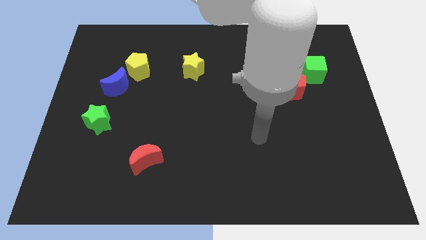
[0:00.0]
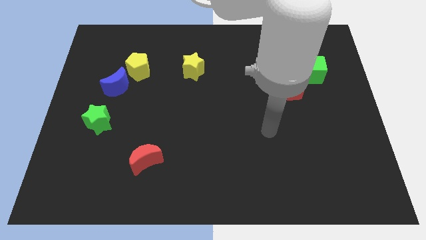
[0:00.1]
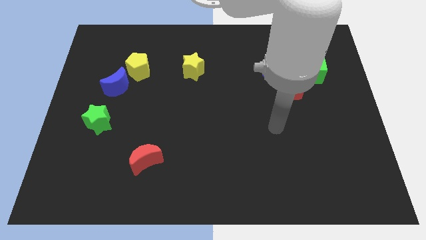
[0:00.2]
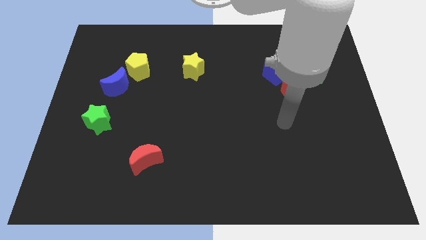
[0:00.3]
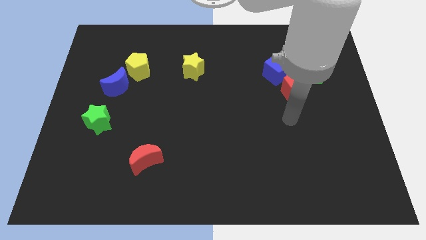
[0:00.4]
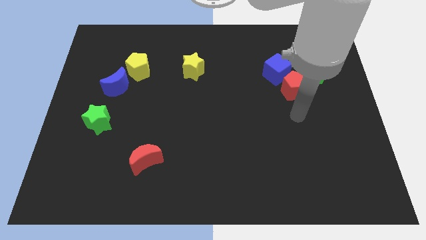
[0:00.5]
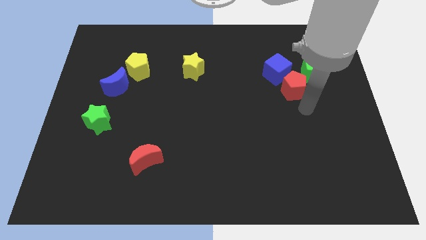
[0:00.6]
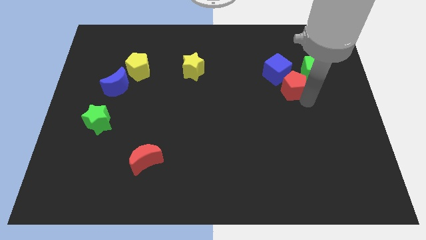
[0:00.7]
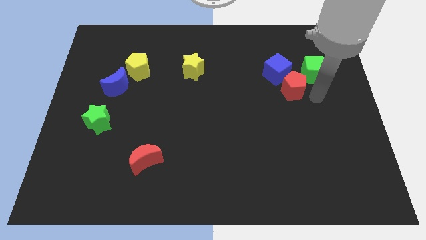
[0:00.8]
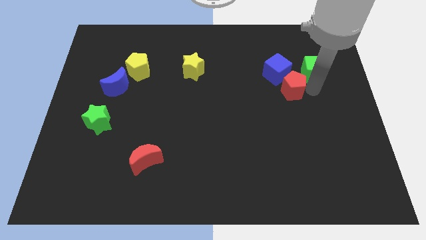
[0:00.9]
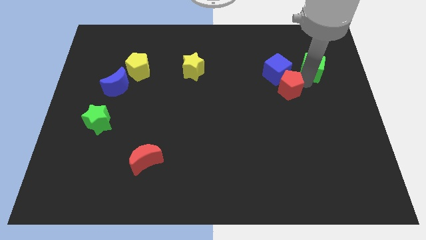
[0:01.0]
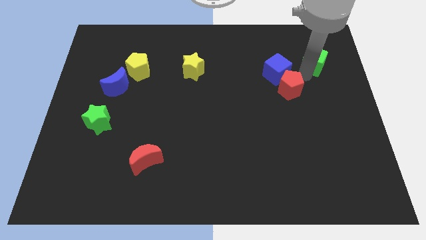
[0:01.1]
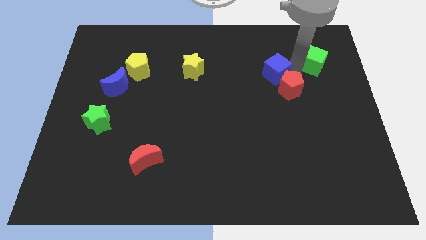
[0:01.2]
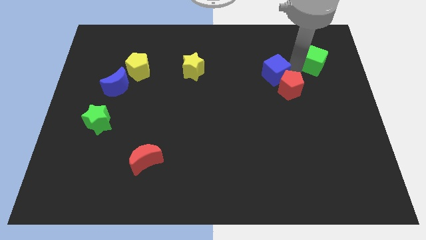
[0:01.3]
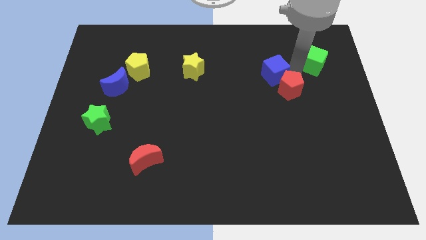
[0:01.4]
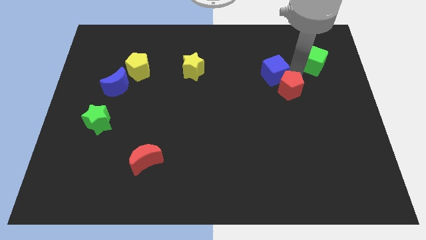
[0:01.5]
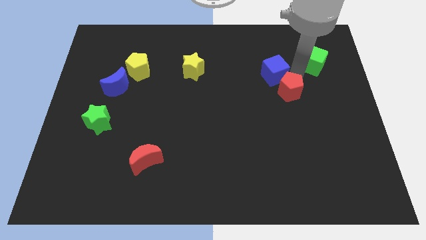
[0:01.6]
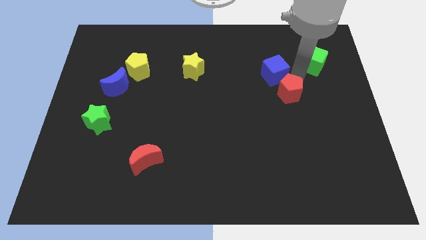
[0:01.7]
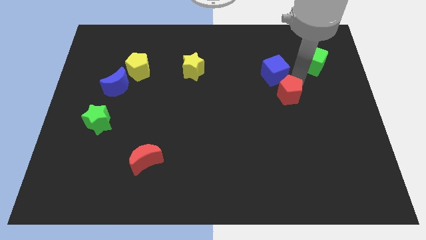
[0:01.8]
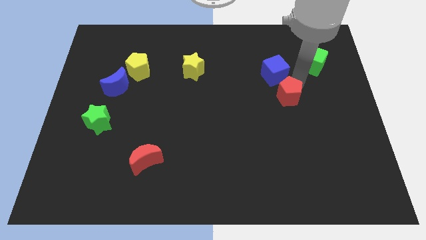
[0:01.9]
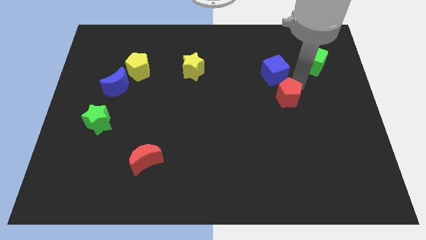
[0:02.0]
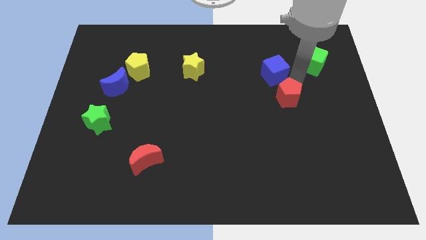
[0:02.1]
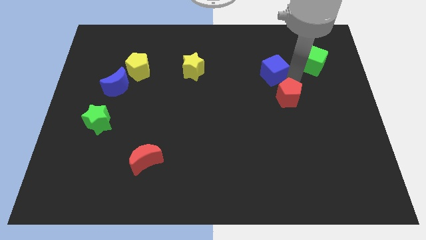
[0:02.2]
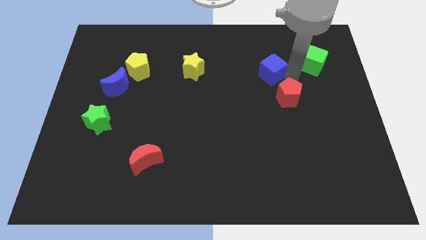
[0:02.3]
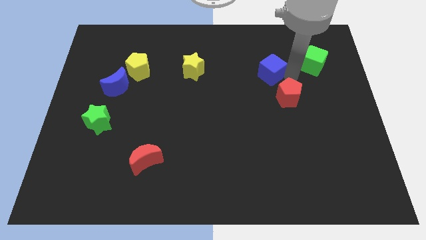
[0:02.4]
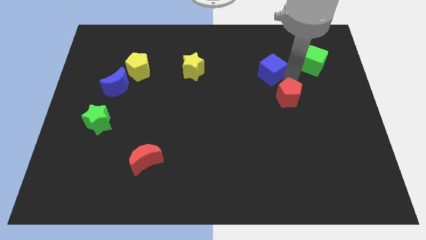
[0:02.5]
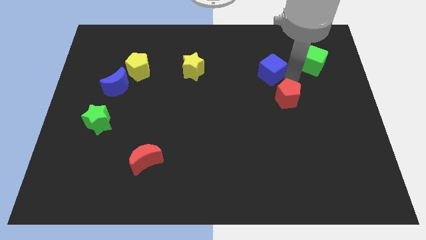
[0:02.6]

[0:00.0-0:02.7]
pull the red pentagon apart from the blue cube and green cube

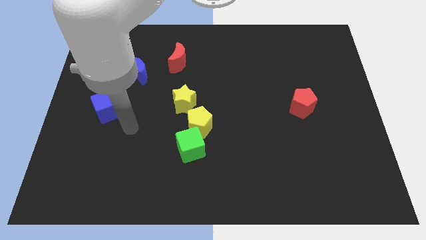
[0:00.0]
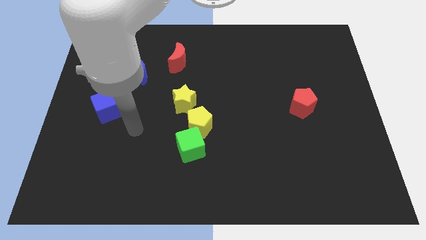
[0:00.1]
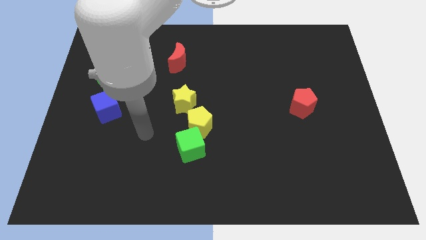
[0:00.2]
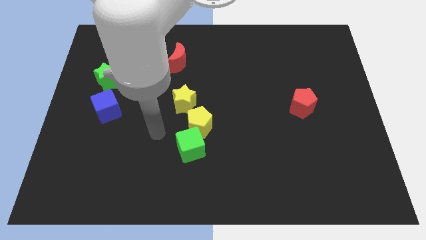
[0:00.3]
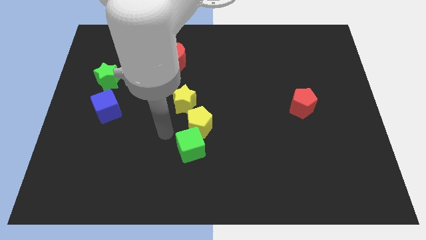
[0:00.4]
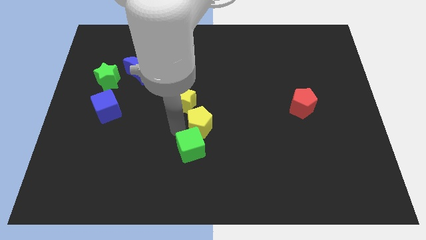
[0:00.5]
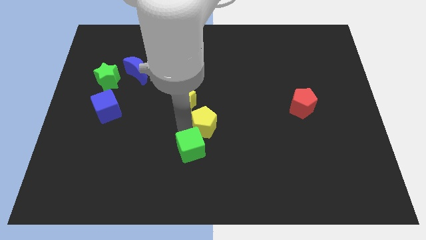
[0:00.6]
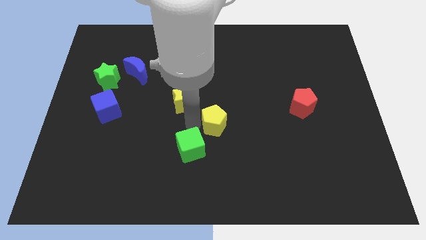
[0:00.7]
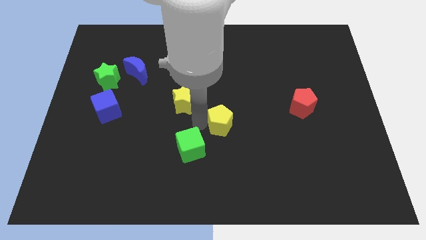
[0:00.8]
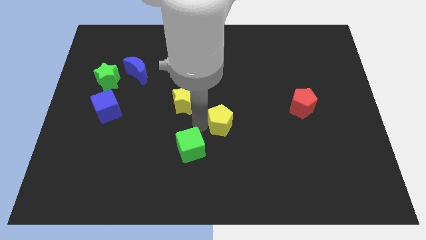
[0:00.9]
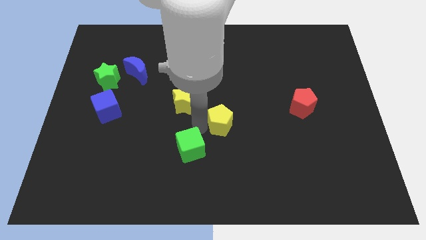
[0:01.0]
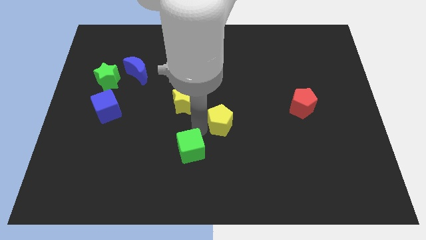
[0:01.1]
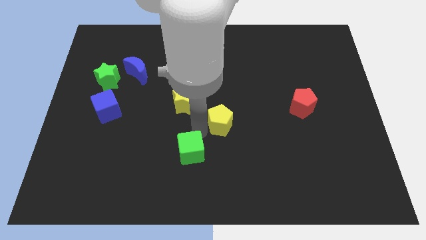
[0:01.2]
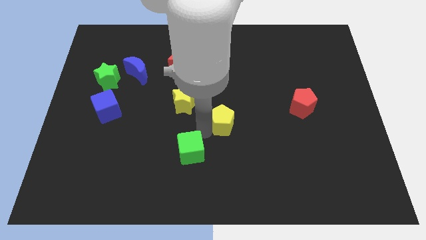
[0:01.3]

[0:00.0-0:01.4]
move the green cube away from the yellow pentagon

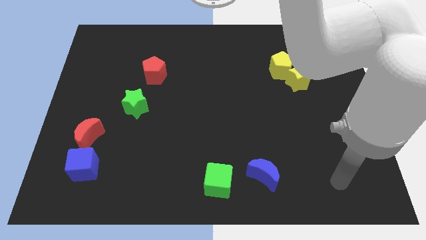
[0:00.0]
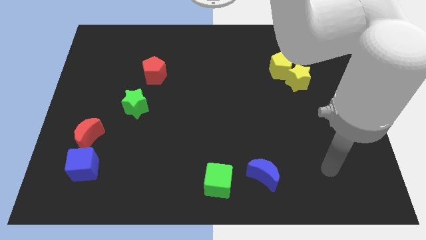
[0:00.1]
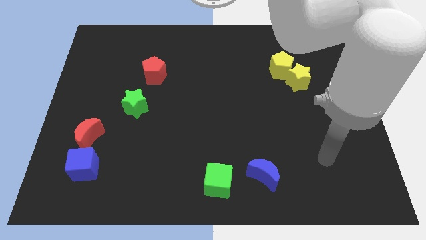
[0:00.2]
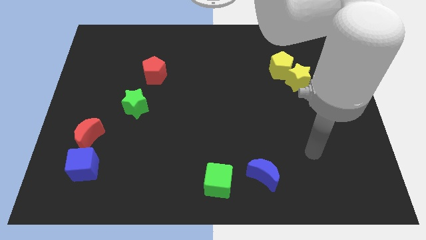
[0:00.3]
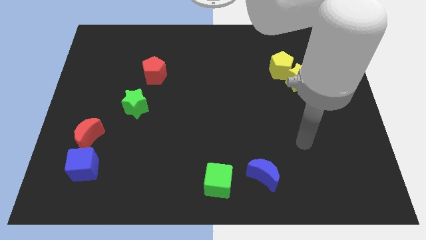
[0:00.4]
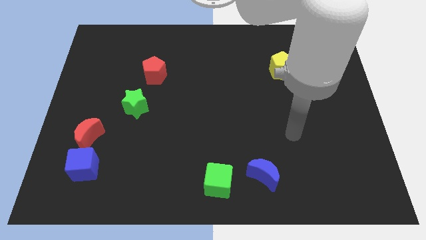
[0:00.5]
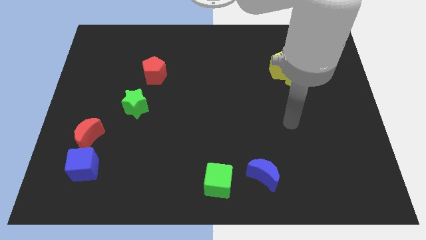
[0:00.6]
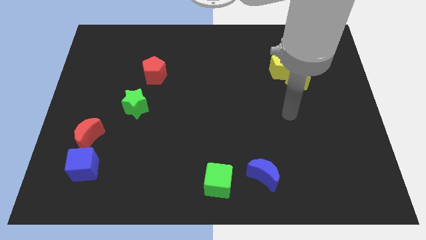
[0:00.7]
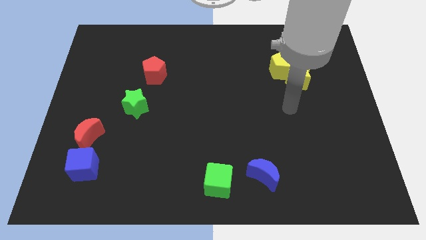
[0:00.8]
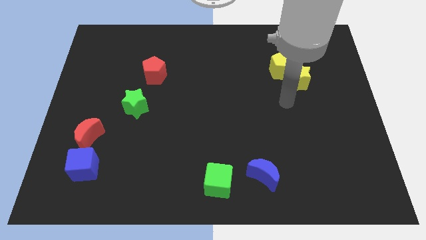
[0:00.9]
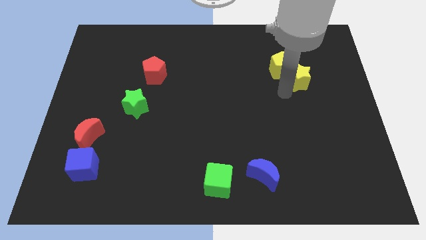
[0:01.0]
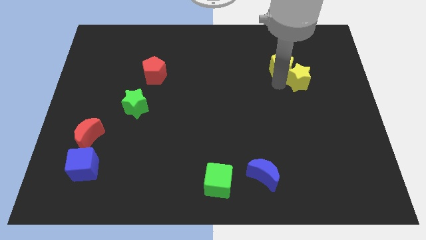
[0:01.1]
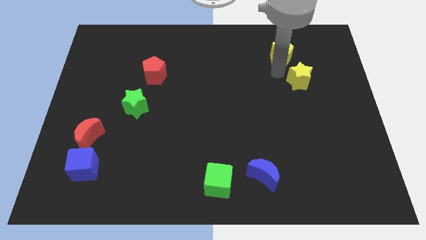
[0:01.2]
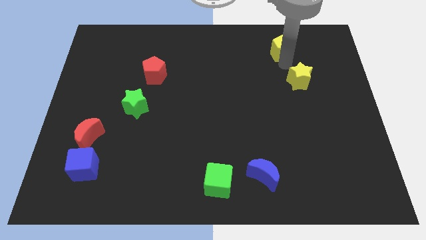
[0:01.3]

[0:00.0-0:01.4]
separate the yellow star from the yellow pentagon

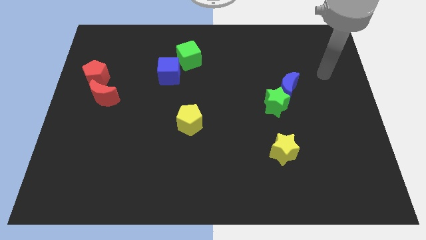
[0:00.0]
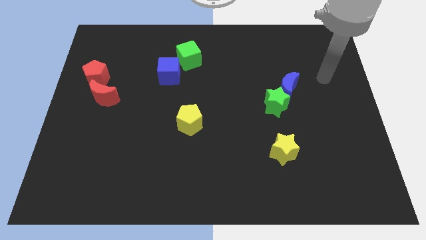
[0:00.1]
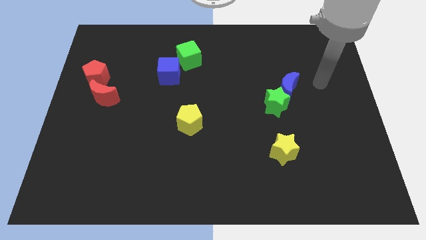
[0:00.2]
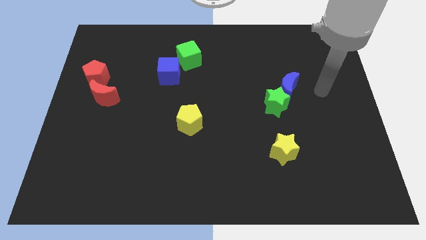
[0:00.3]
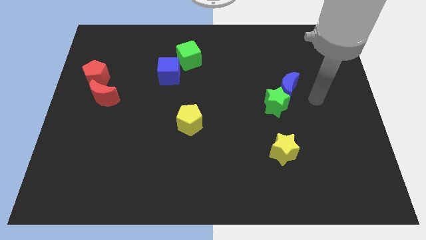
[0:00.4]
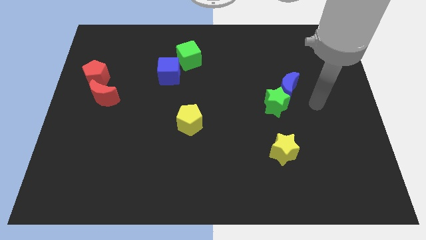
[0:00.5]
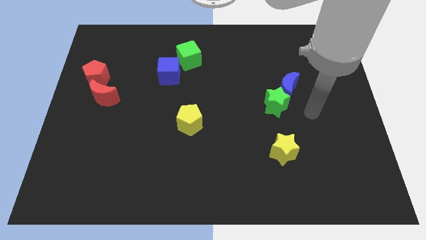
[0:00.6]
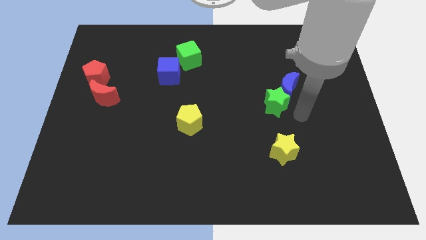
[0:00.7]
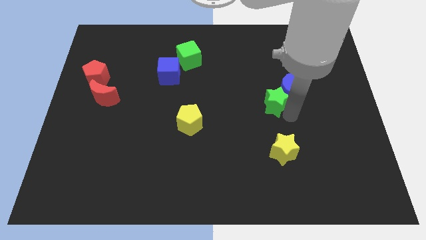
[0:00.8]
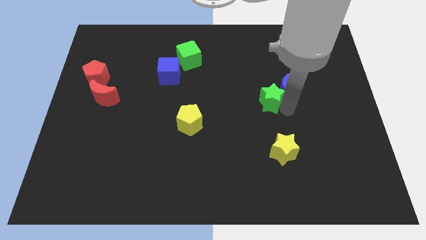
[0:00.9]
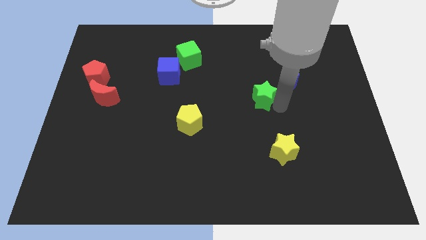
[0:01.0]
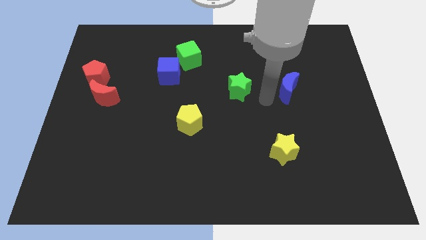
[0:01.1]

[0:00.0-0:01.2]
separate the blue moon from the green star

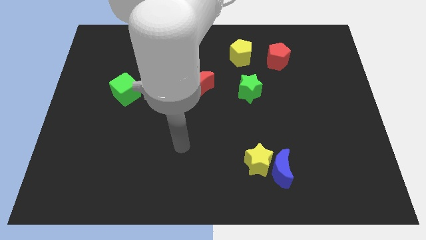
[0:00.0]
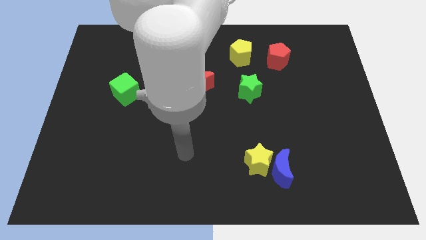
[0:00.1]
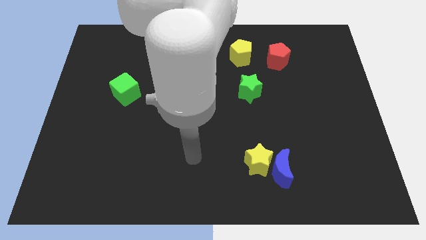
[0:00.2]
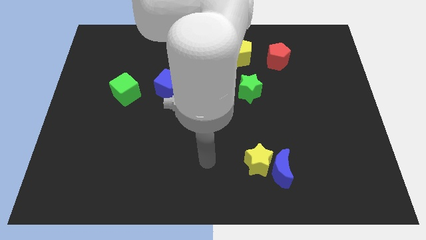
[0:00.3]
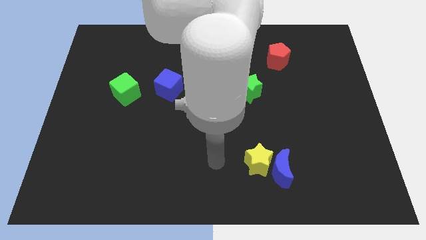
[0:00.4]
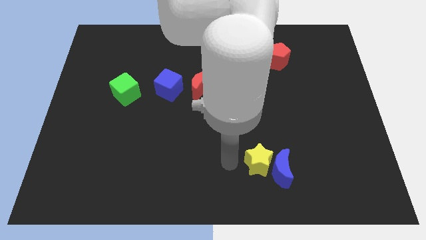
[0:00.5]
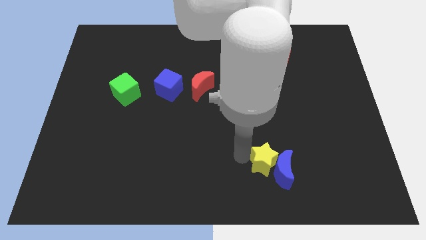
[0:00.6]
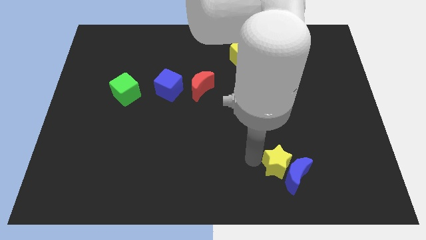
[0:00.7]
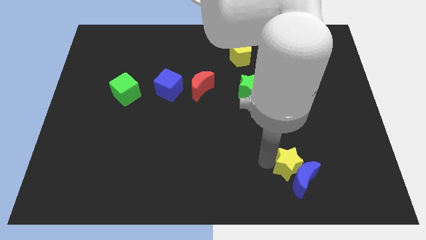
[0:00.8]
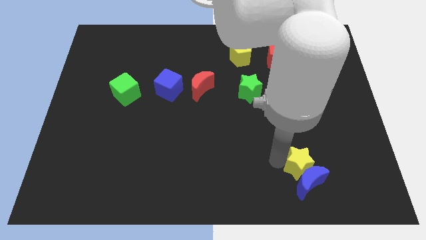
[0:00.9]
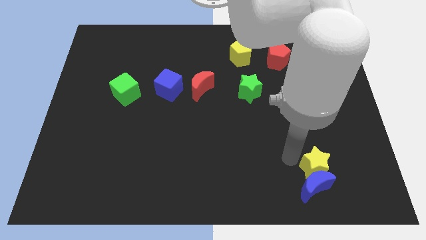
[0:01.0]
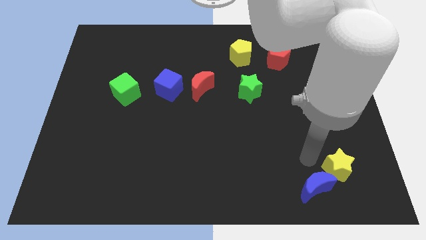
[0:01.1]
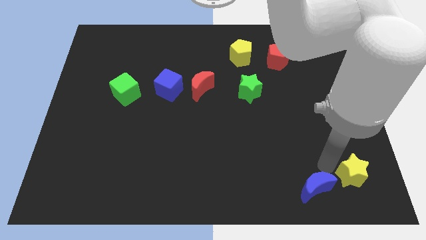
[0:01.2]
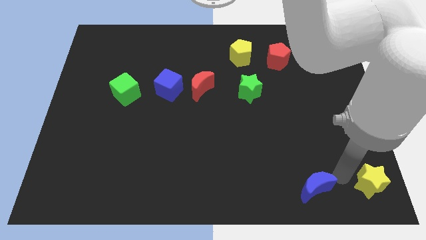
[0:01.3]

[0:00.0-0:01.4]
move the blue moon away from the yellow star

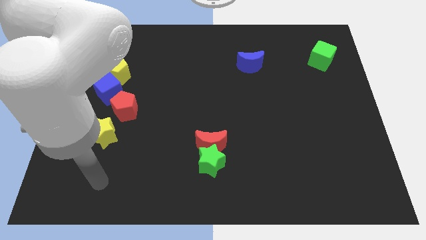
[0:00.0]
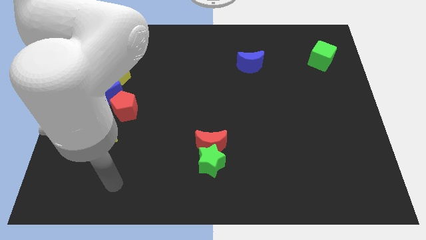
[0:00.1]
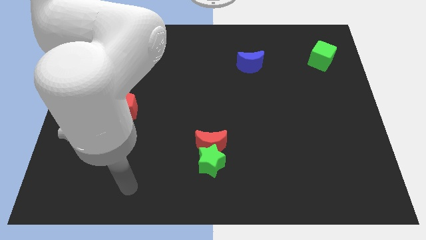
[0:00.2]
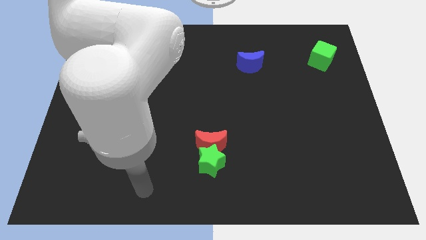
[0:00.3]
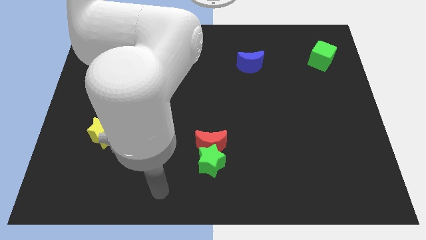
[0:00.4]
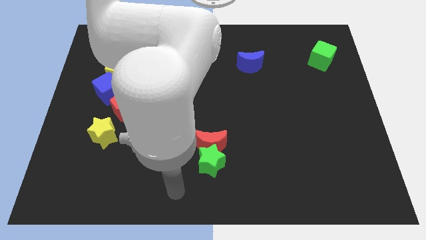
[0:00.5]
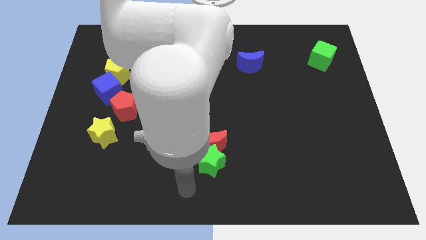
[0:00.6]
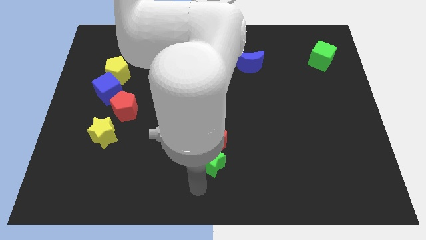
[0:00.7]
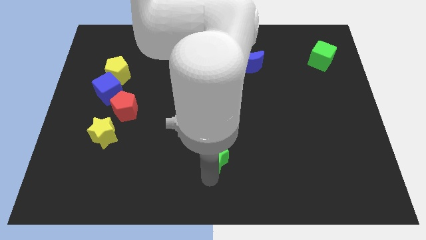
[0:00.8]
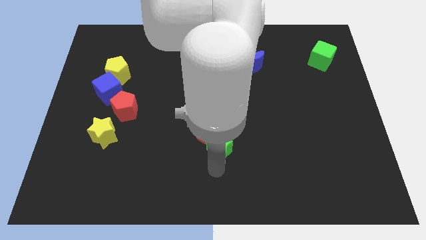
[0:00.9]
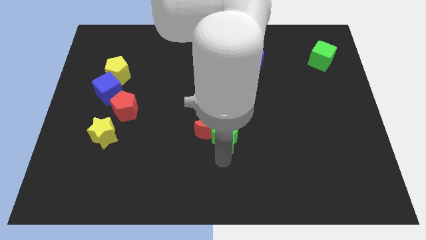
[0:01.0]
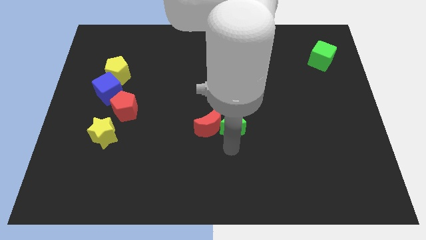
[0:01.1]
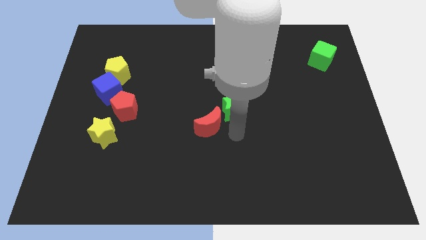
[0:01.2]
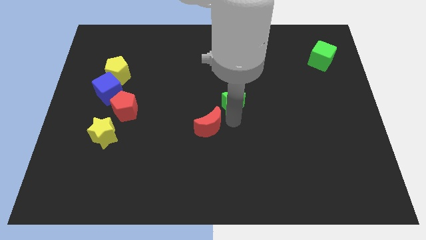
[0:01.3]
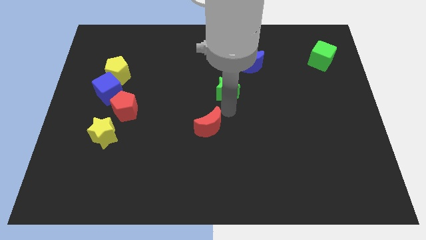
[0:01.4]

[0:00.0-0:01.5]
move the red moon away from the green star
